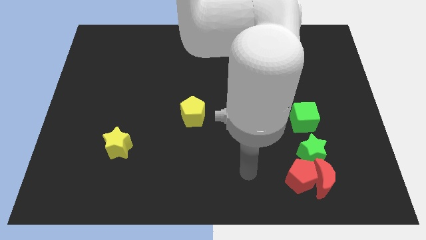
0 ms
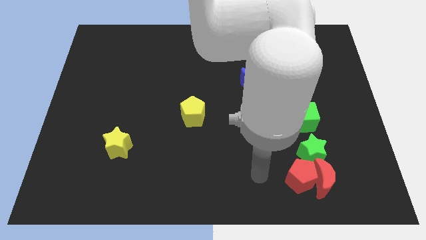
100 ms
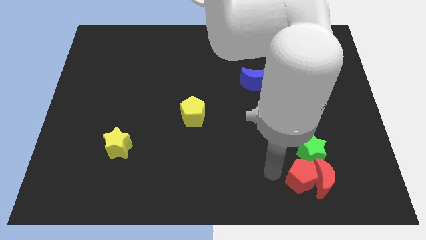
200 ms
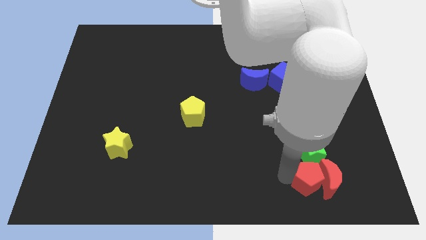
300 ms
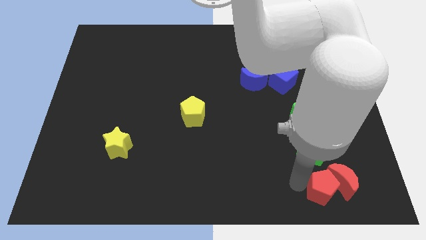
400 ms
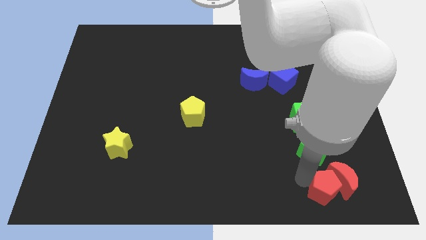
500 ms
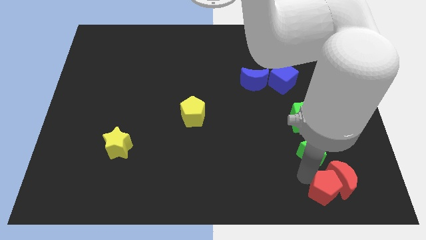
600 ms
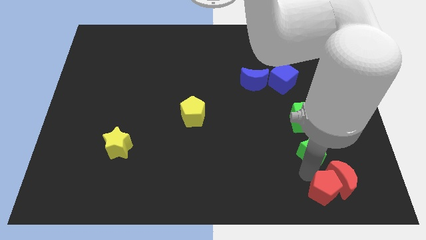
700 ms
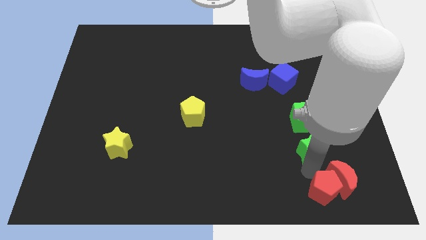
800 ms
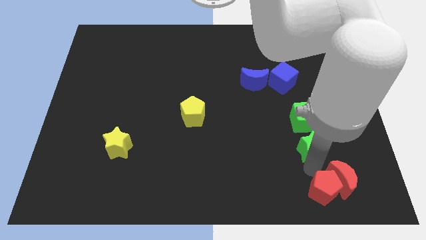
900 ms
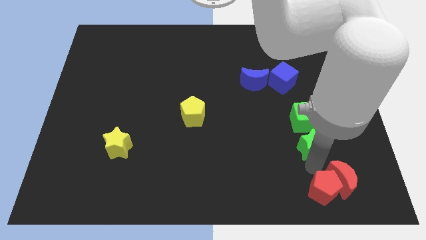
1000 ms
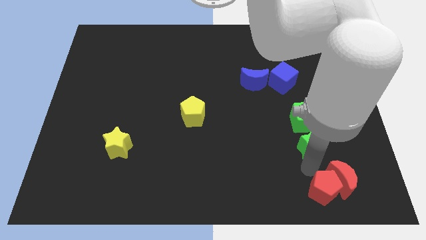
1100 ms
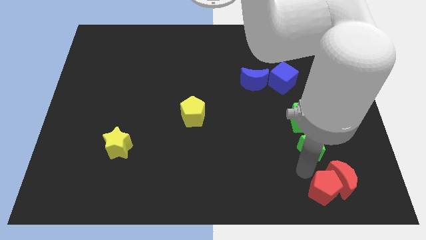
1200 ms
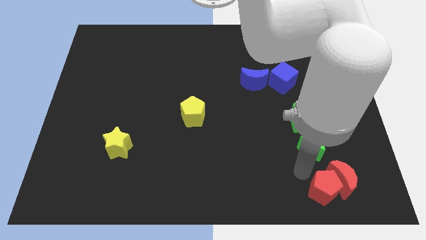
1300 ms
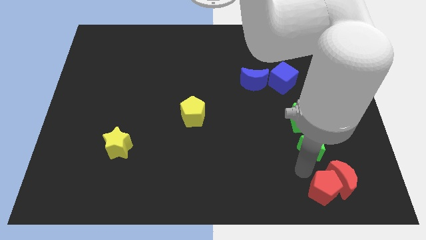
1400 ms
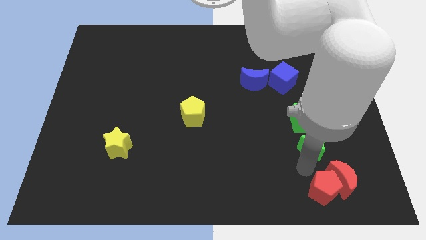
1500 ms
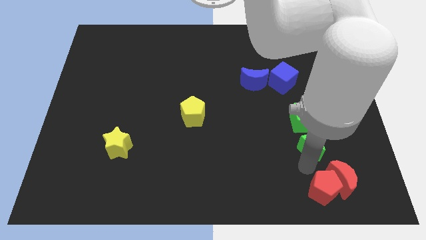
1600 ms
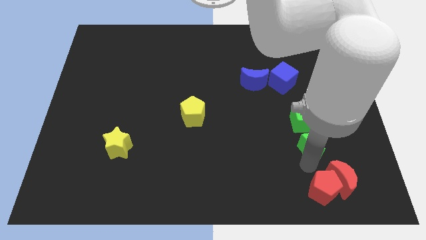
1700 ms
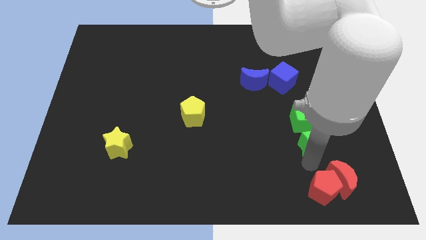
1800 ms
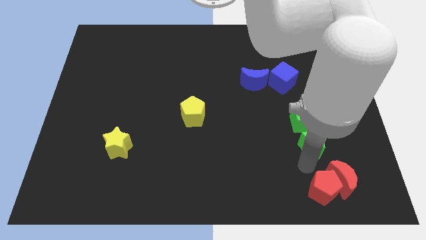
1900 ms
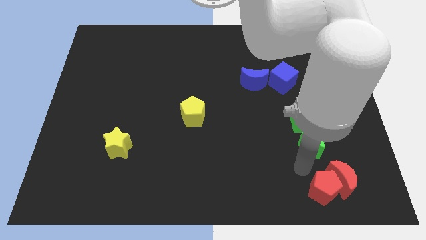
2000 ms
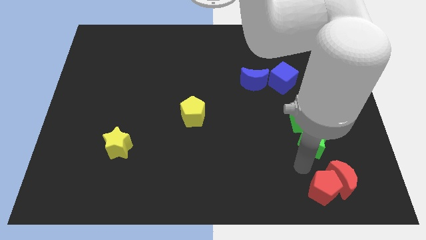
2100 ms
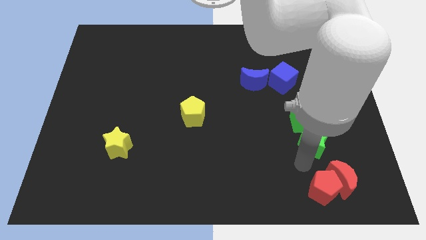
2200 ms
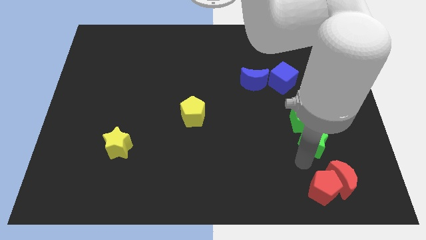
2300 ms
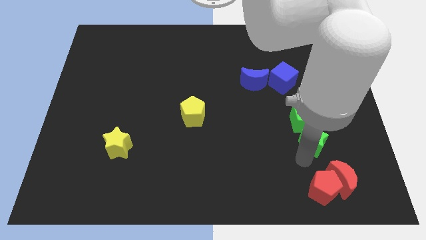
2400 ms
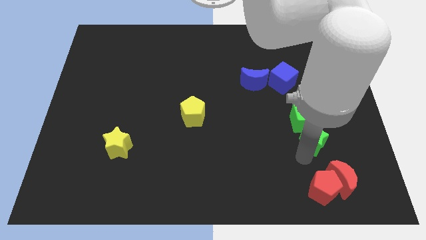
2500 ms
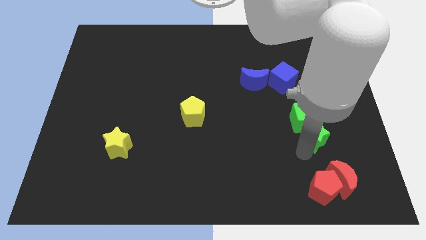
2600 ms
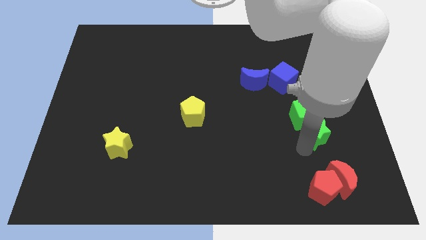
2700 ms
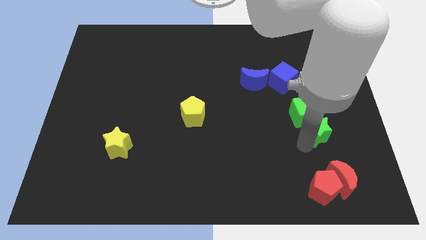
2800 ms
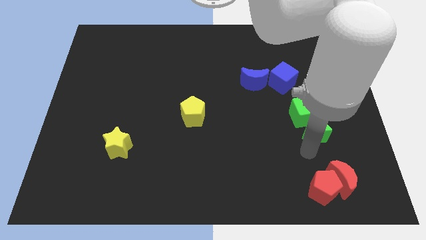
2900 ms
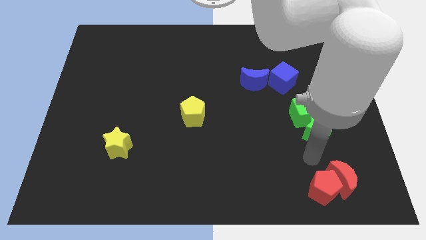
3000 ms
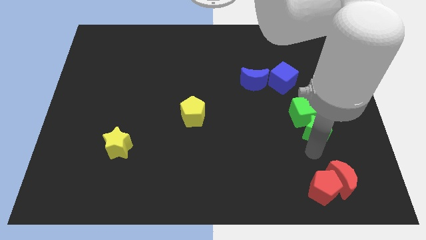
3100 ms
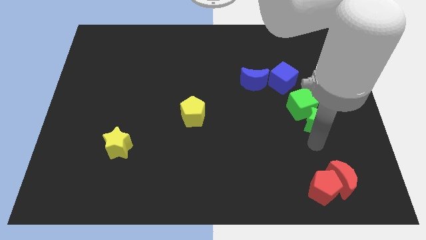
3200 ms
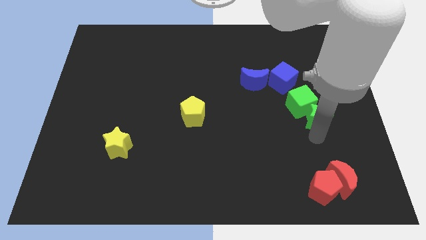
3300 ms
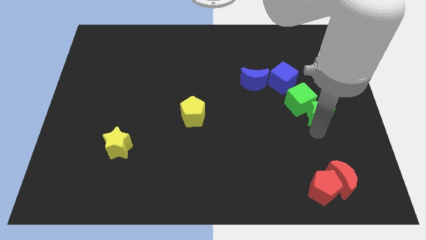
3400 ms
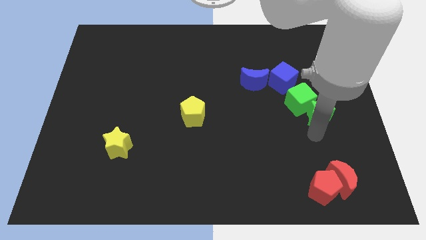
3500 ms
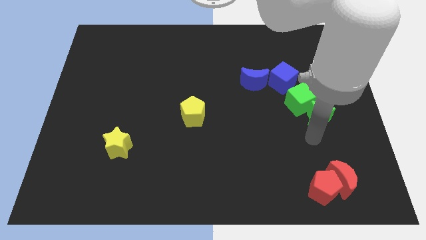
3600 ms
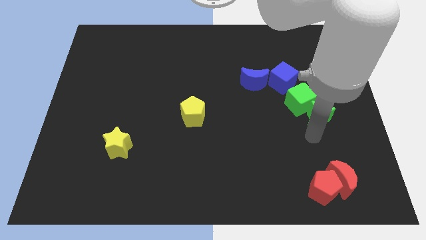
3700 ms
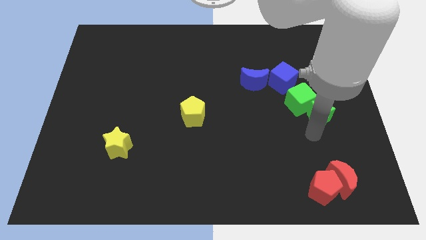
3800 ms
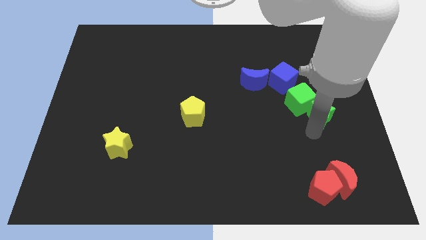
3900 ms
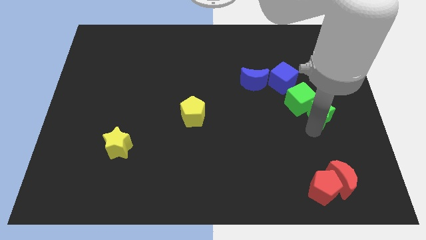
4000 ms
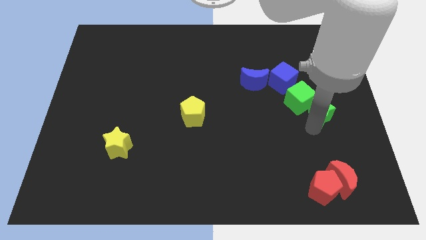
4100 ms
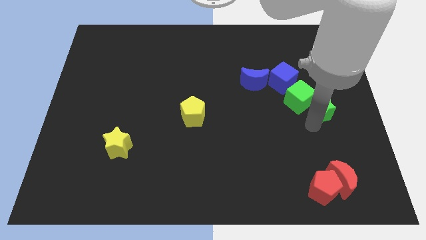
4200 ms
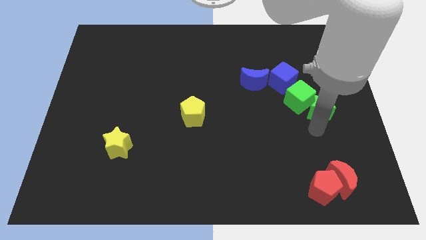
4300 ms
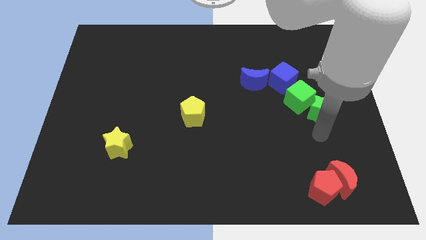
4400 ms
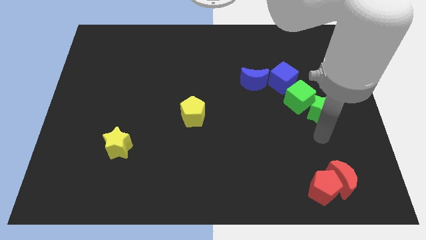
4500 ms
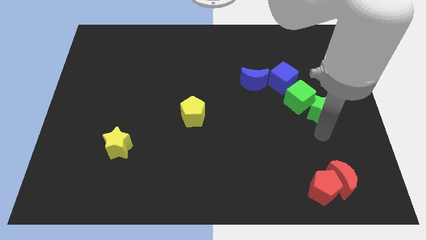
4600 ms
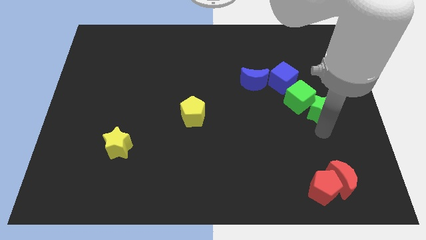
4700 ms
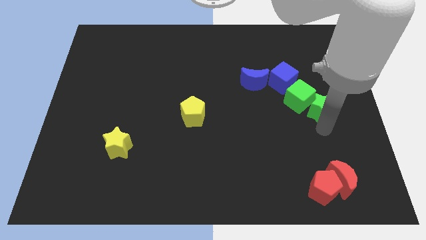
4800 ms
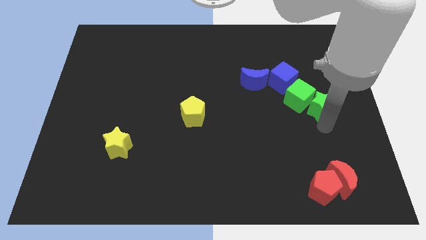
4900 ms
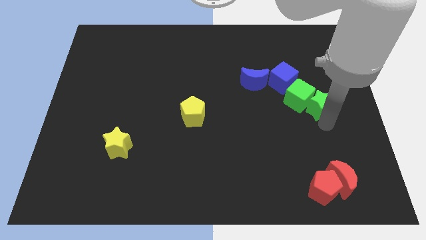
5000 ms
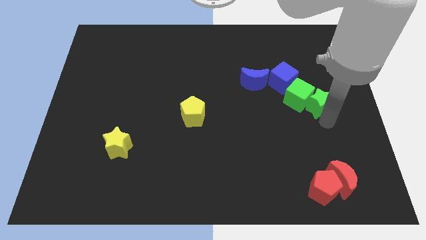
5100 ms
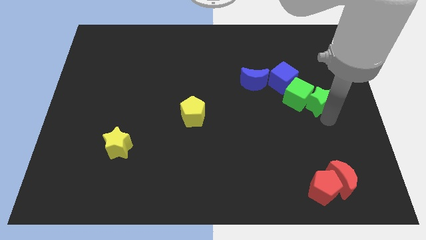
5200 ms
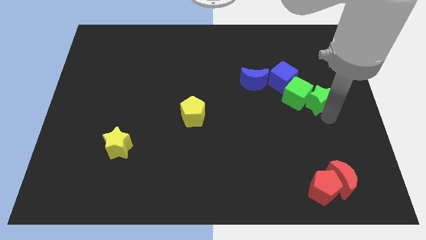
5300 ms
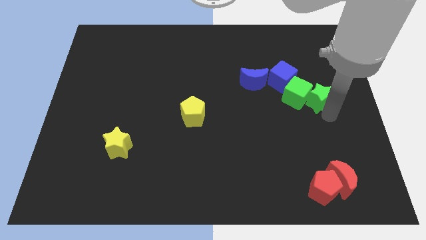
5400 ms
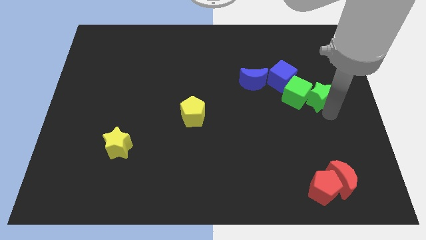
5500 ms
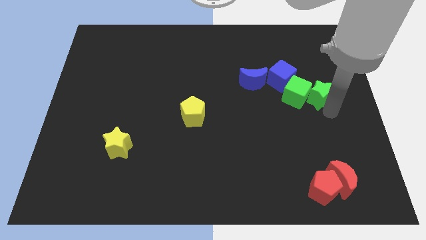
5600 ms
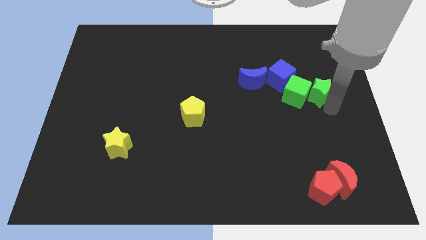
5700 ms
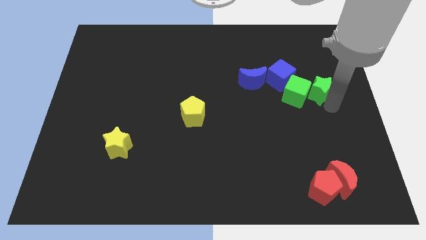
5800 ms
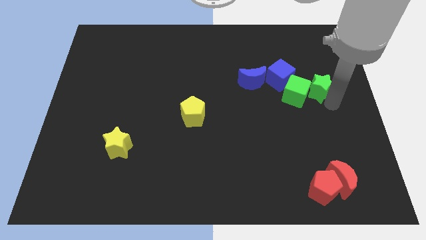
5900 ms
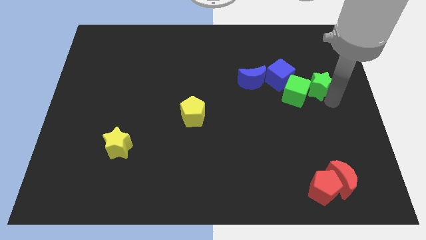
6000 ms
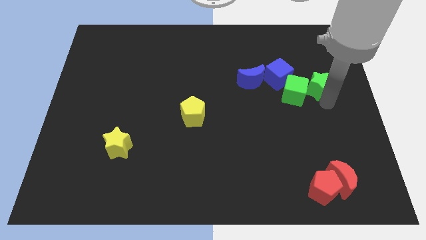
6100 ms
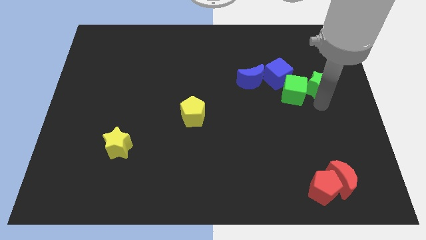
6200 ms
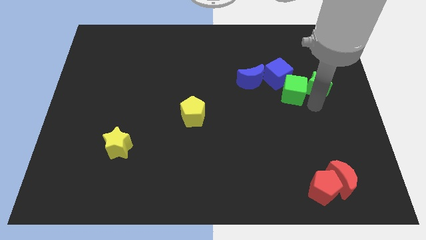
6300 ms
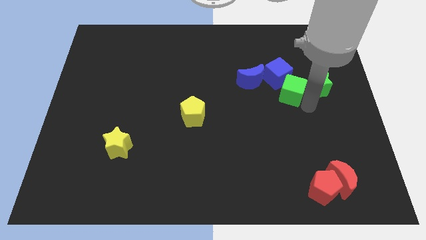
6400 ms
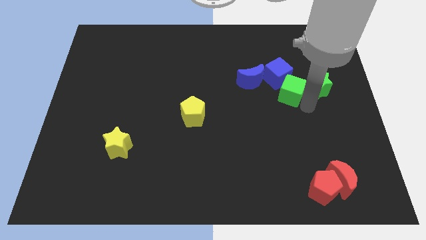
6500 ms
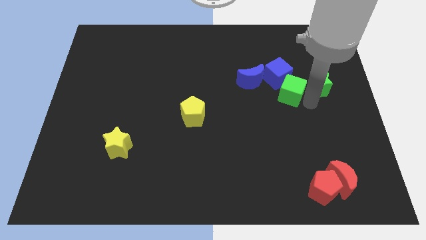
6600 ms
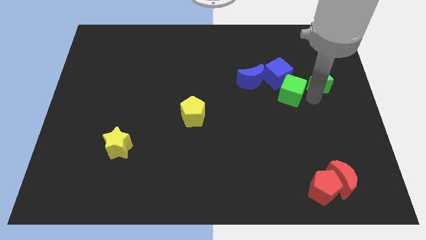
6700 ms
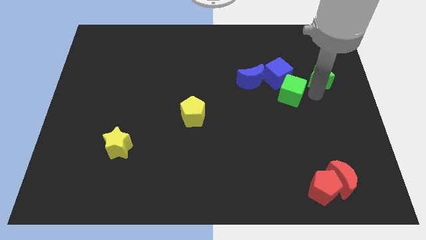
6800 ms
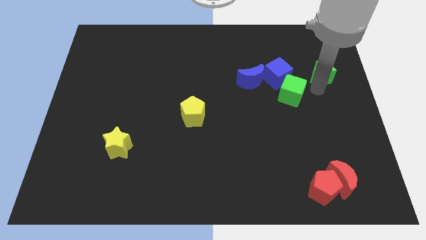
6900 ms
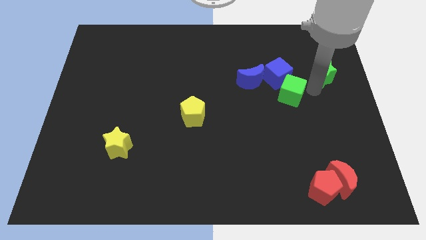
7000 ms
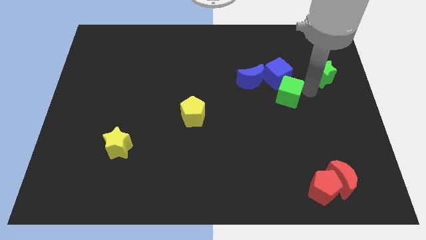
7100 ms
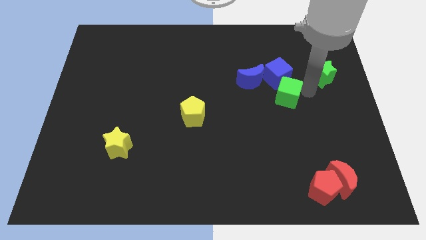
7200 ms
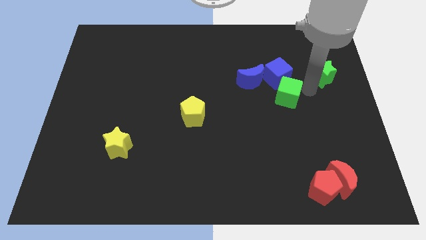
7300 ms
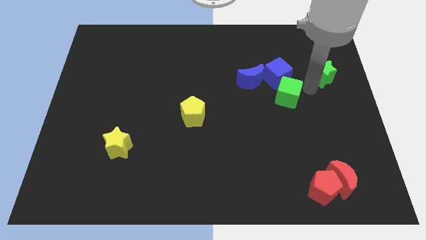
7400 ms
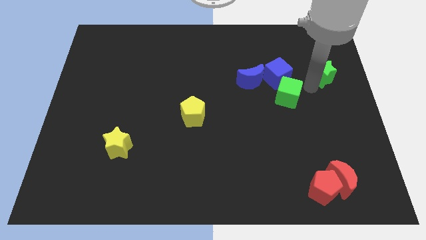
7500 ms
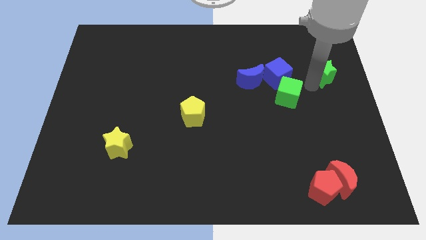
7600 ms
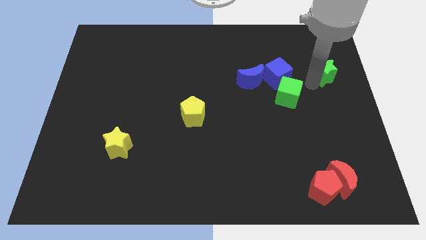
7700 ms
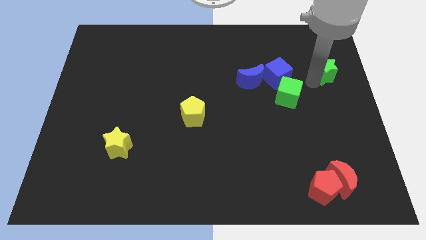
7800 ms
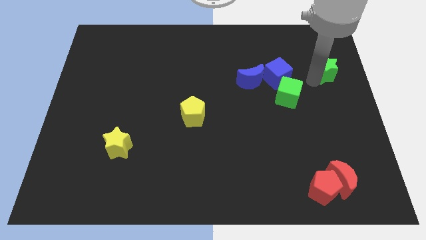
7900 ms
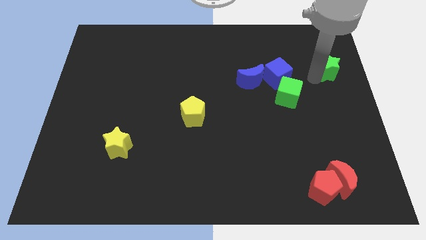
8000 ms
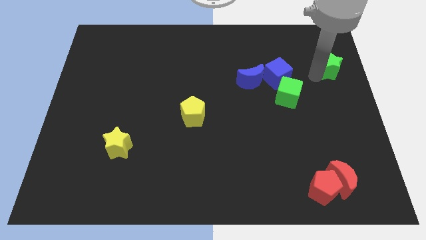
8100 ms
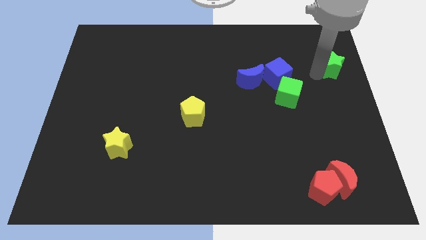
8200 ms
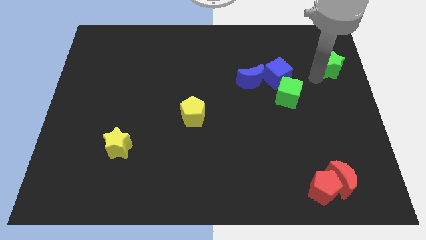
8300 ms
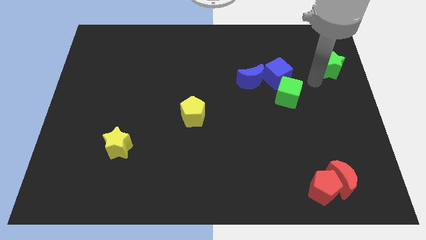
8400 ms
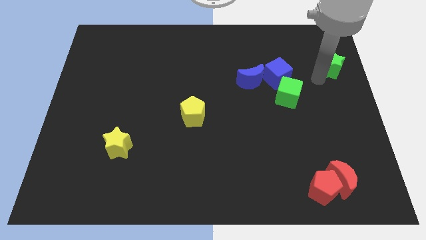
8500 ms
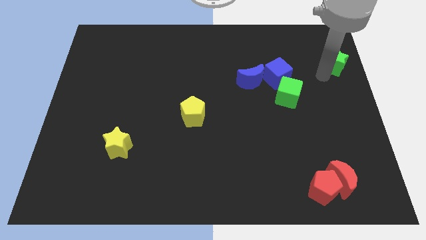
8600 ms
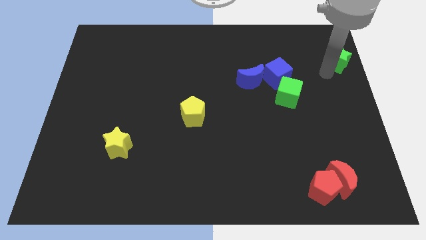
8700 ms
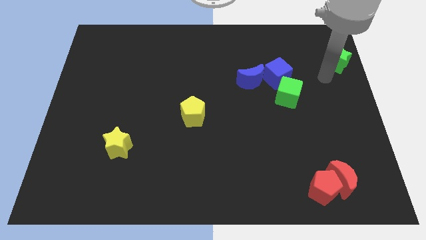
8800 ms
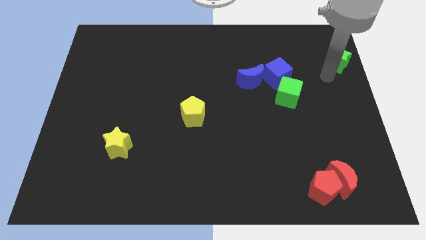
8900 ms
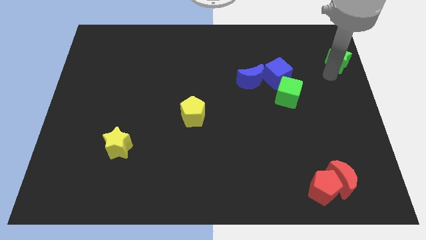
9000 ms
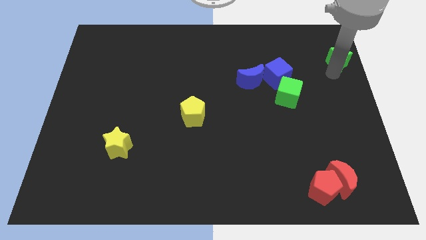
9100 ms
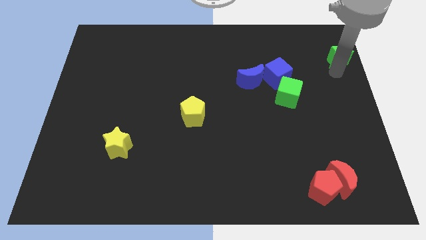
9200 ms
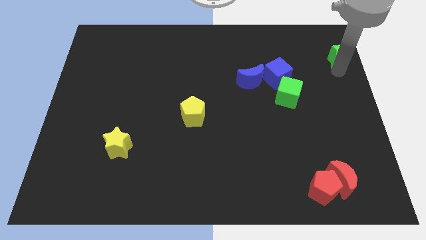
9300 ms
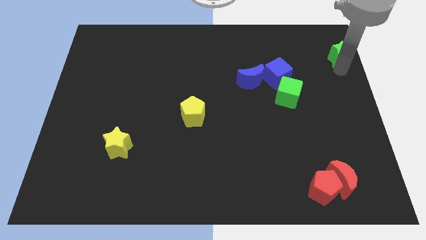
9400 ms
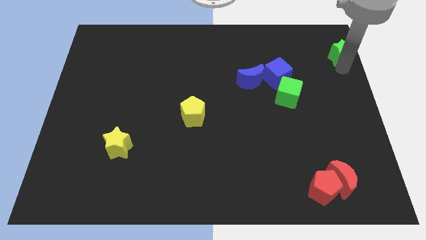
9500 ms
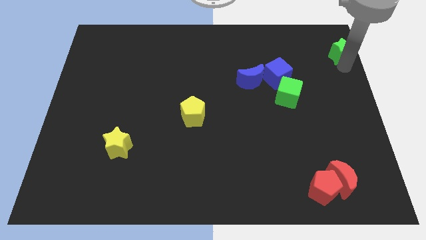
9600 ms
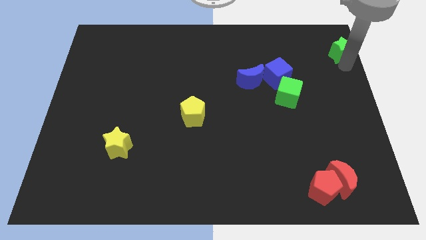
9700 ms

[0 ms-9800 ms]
push the green star to the upper right corner
